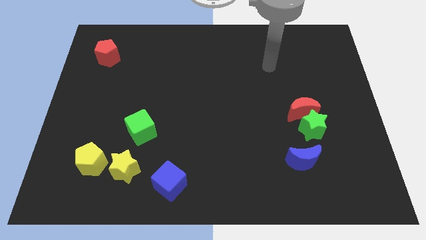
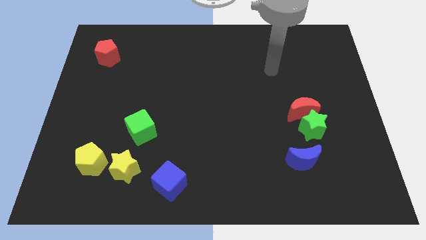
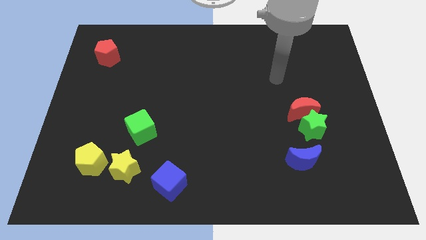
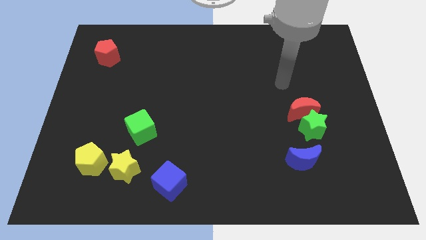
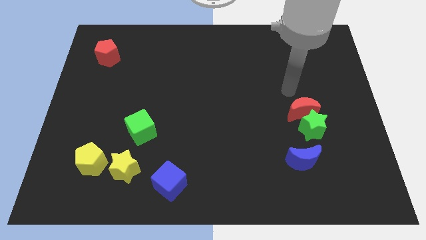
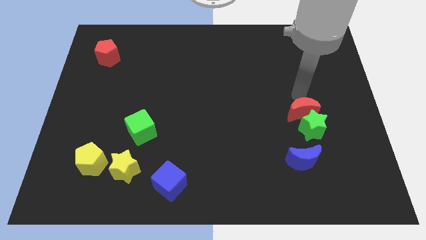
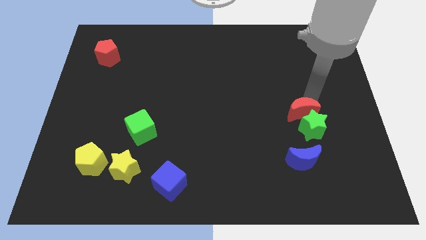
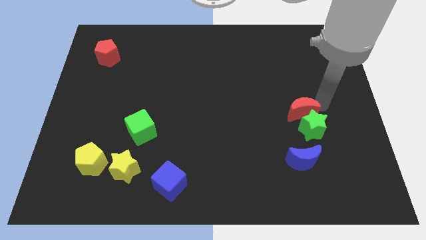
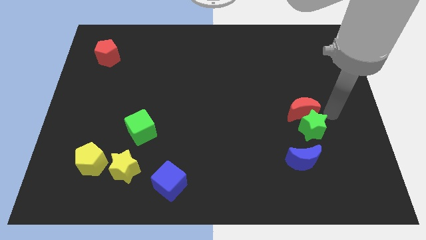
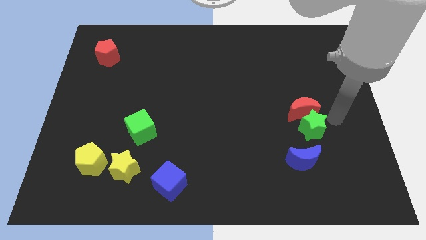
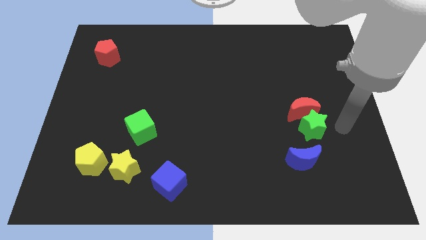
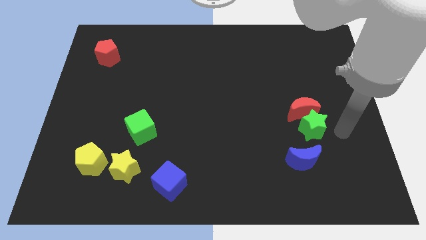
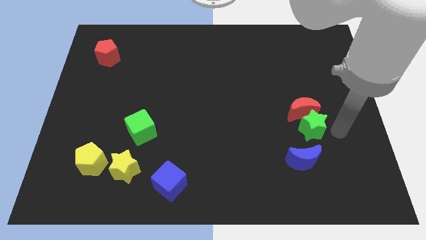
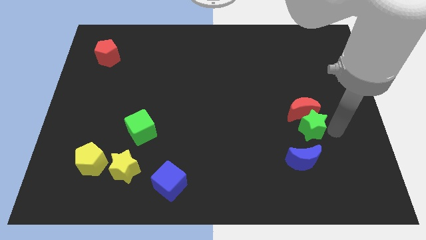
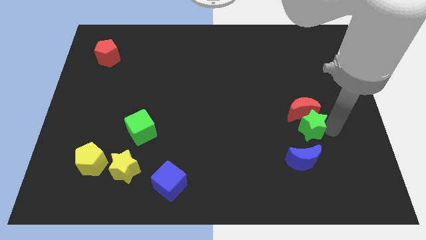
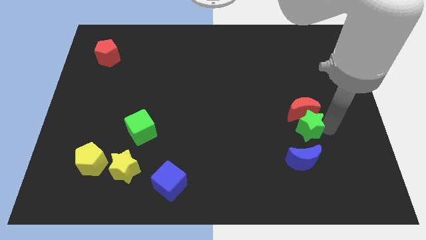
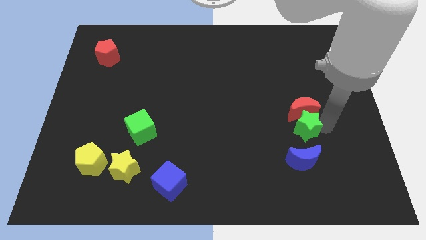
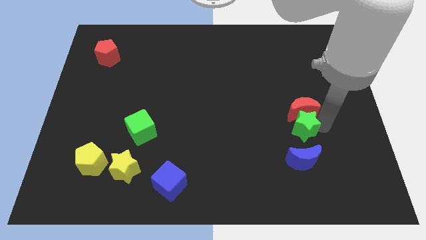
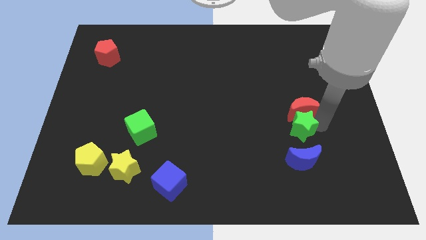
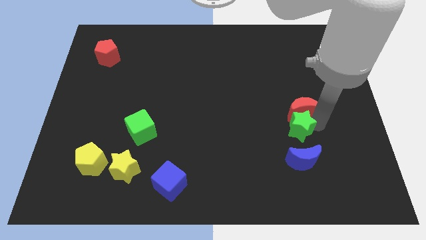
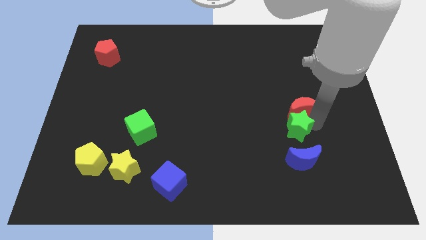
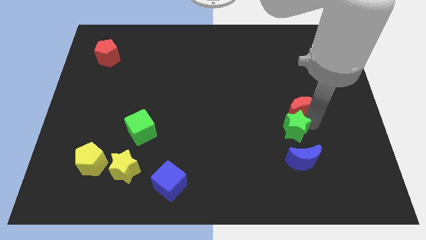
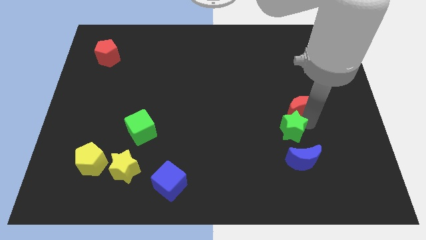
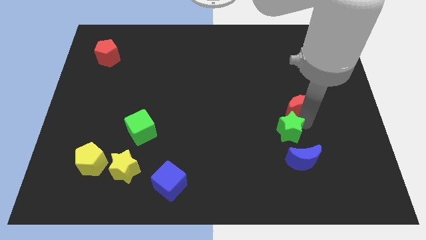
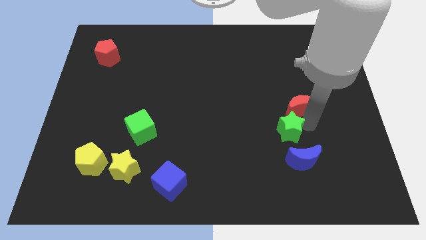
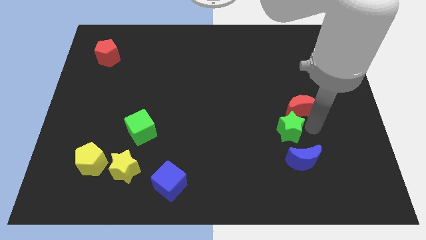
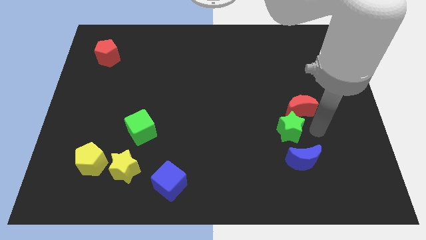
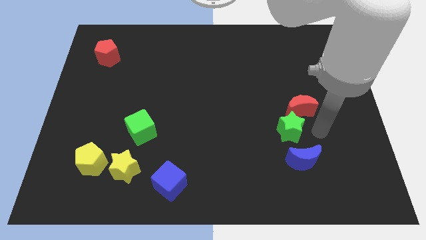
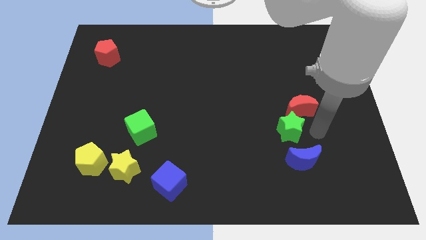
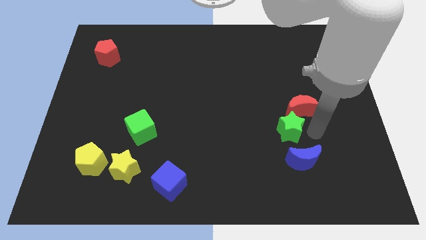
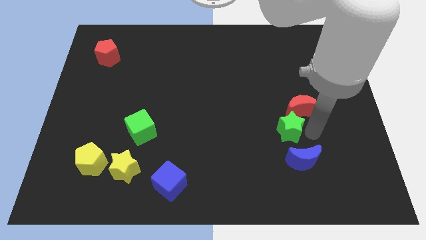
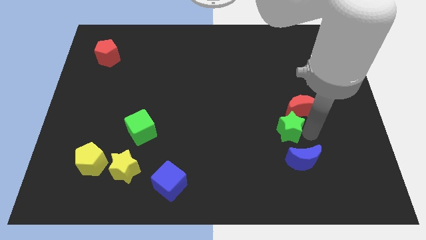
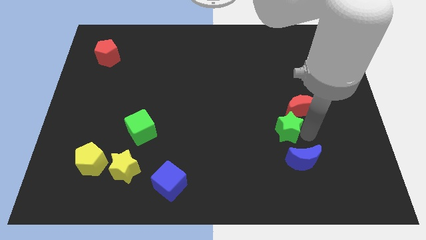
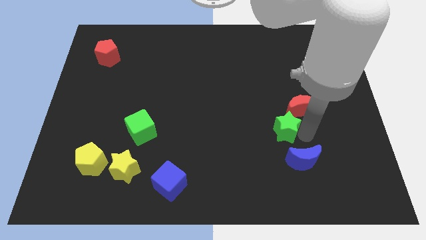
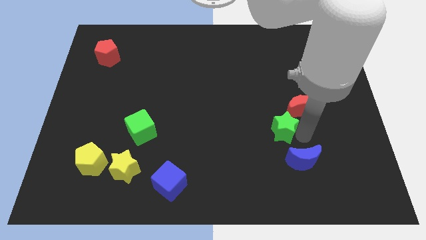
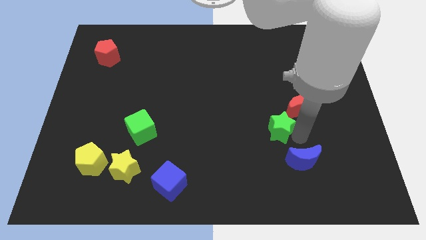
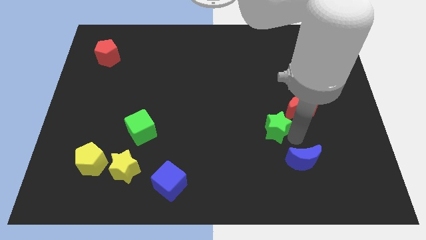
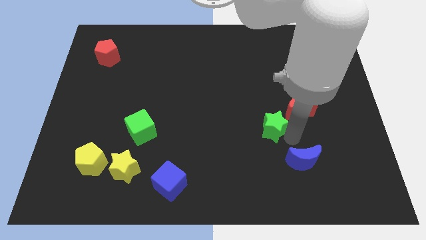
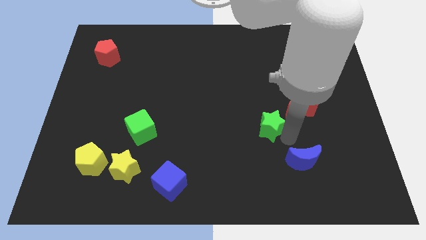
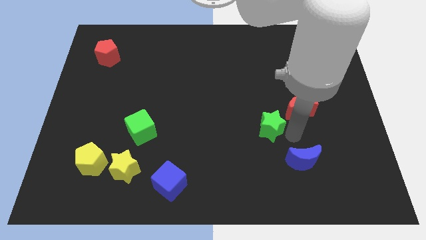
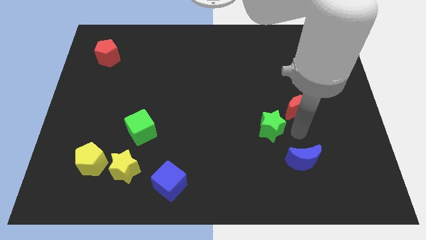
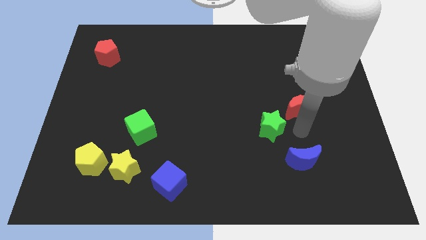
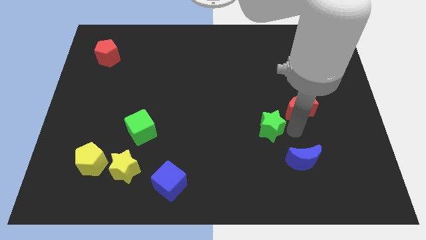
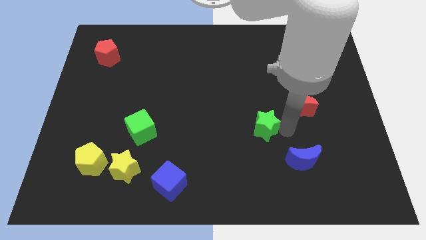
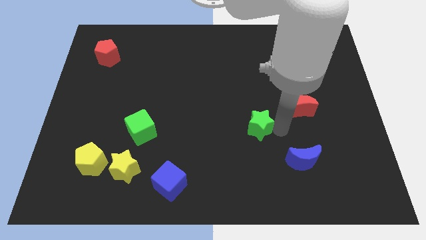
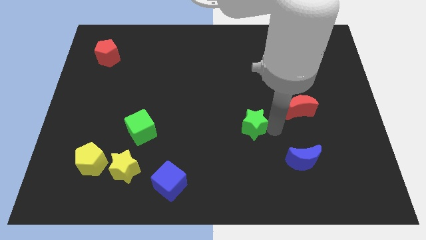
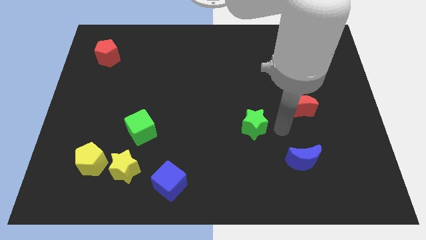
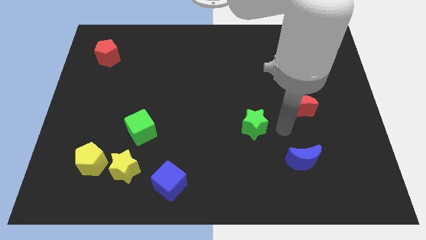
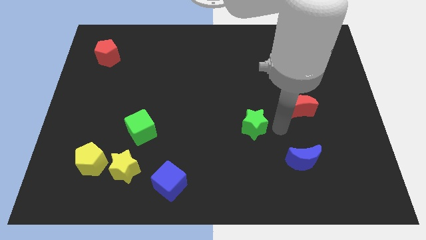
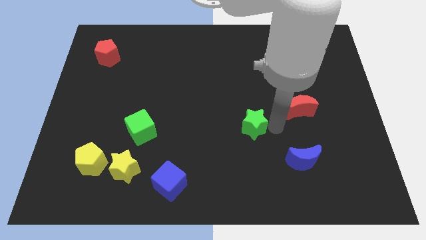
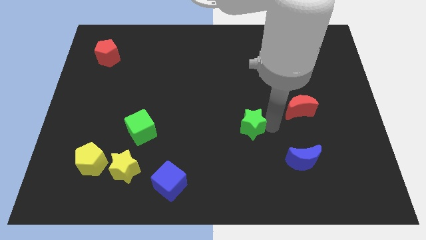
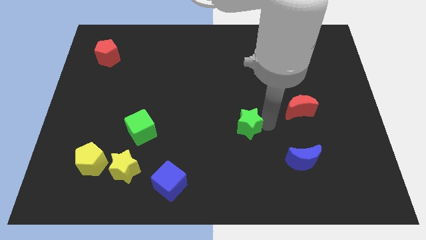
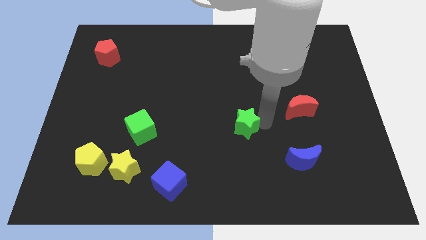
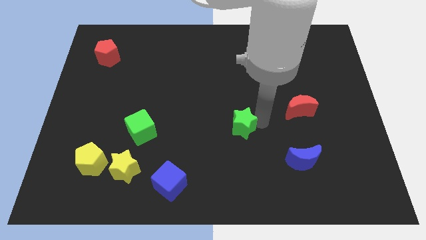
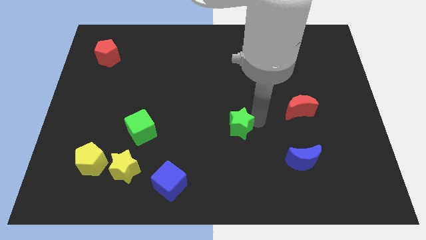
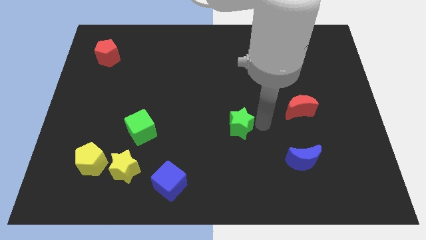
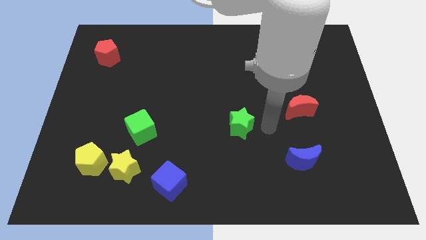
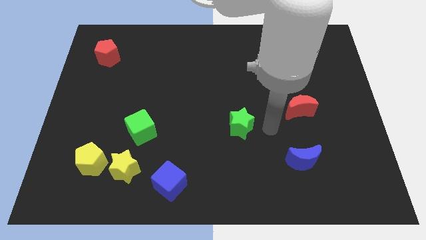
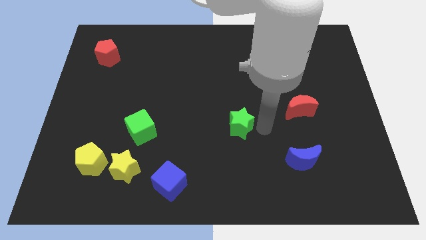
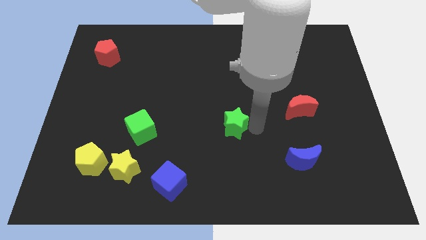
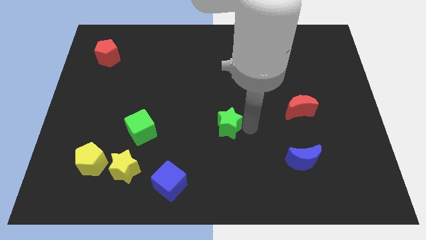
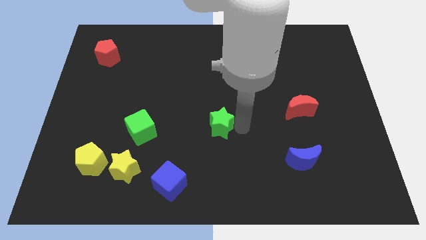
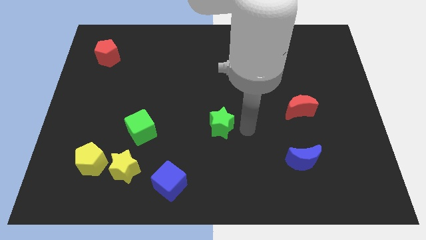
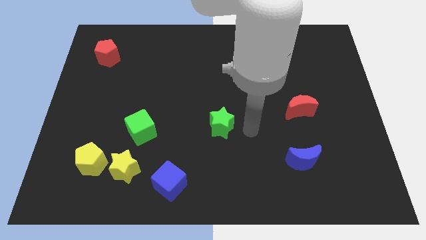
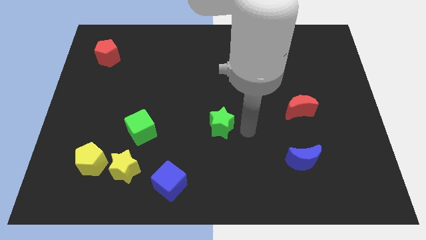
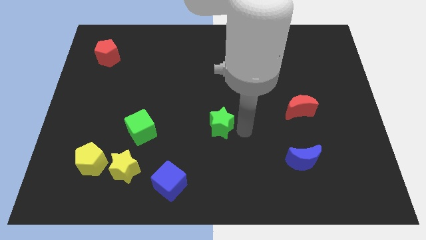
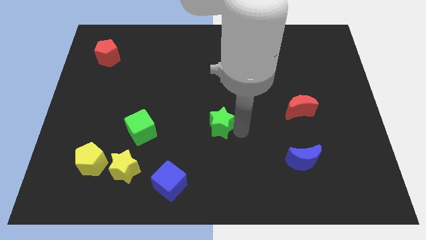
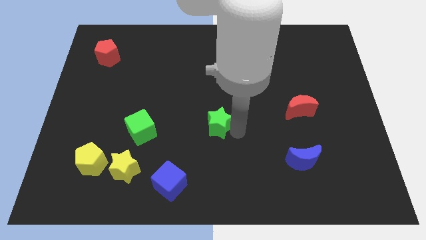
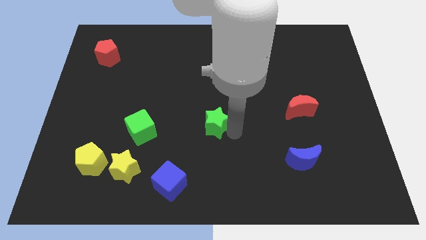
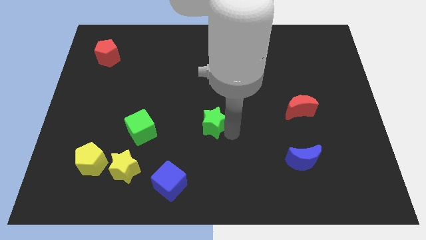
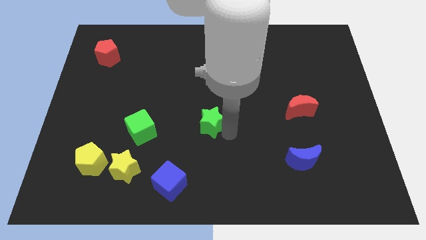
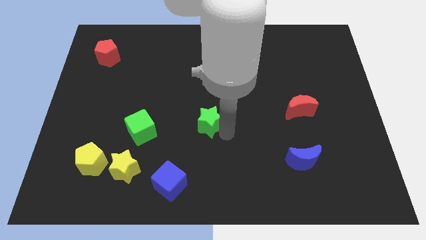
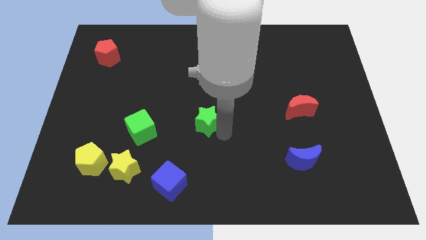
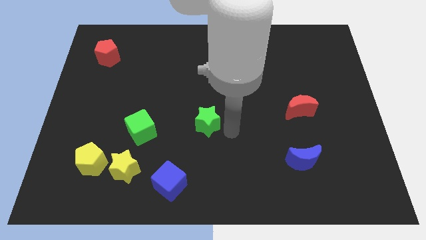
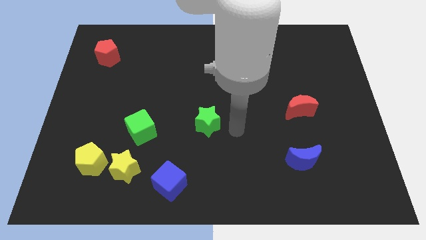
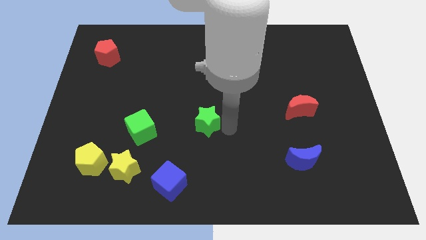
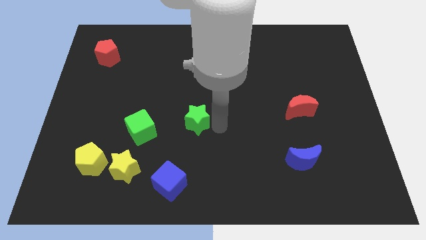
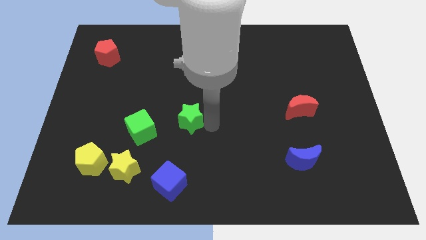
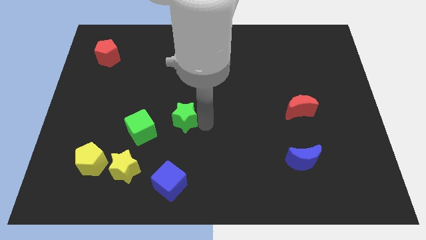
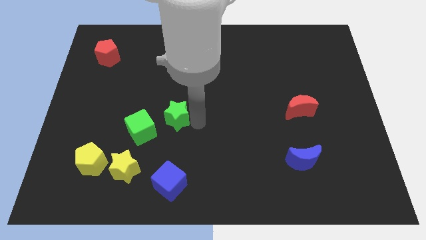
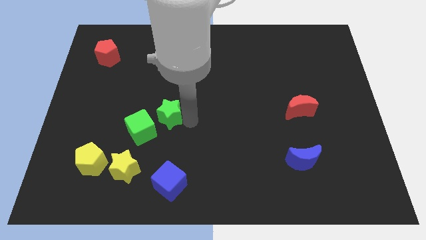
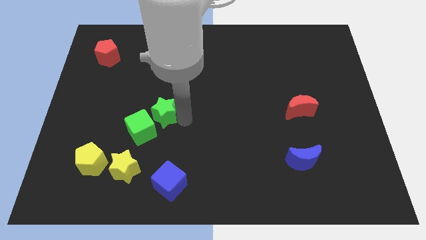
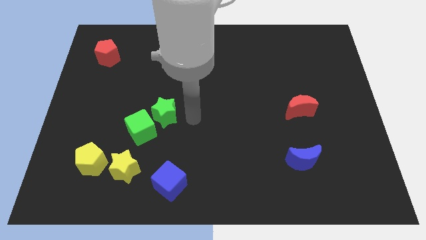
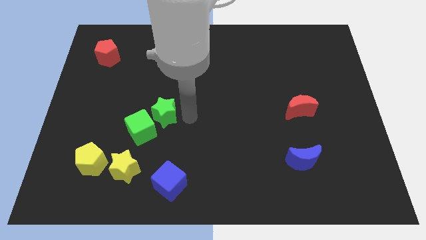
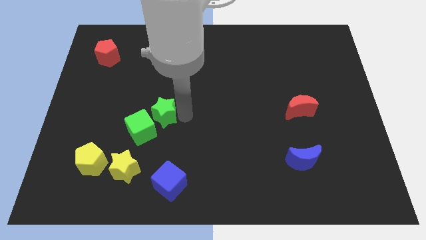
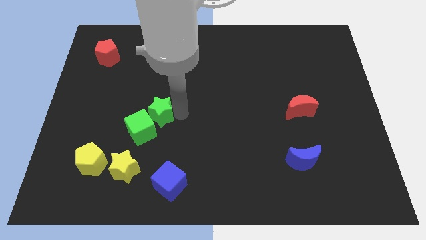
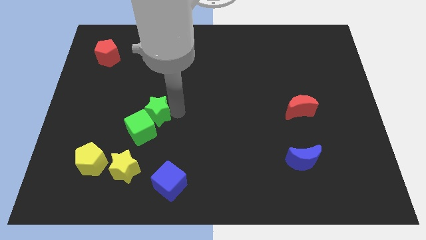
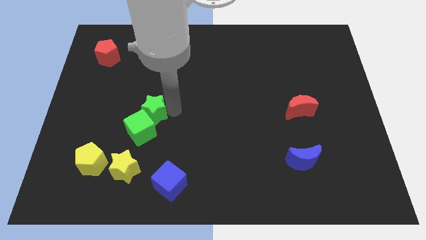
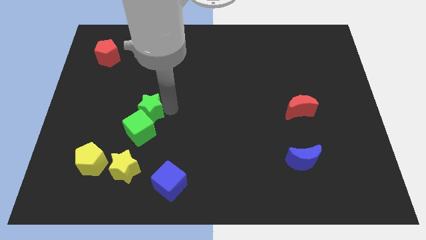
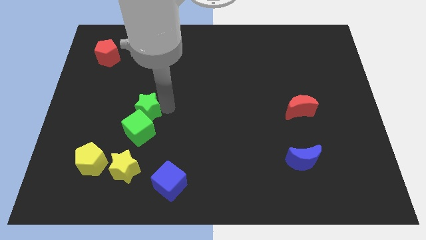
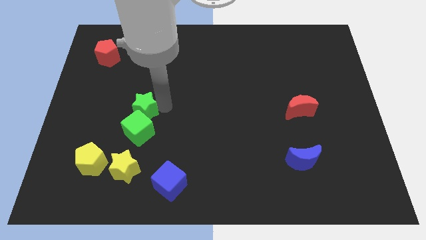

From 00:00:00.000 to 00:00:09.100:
slide the green star to the top left side of the green cube
